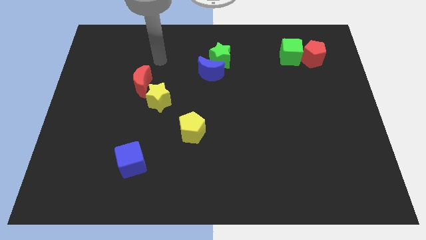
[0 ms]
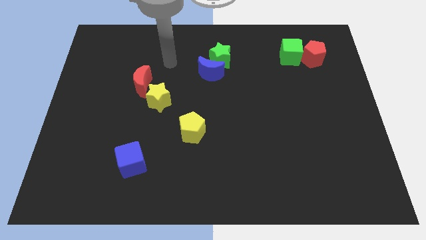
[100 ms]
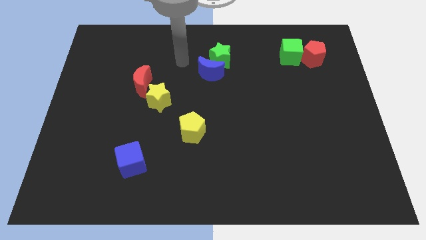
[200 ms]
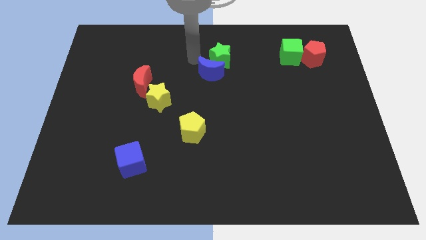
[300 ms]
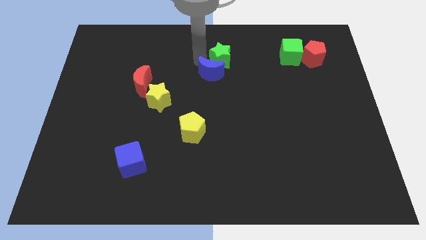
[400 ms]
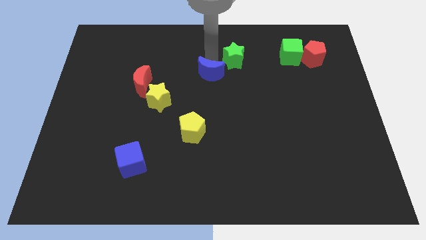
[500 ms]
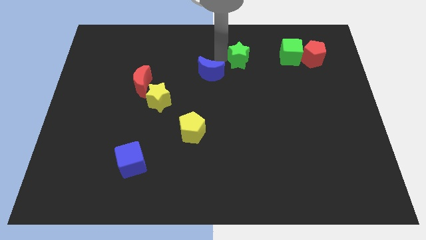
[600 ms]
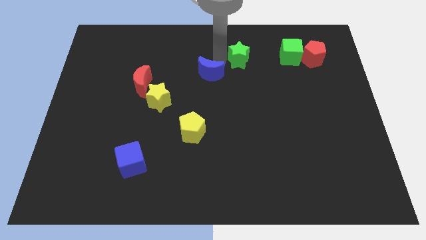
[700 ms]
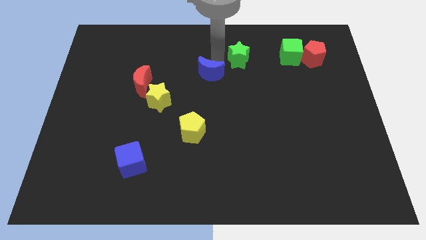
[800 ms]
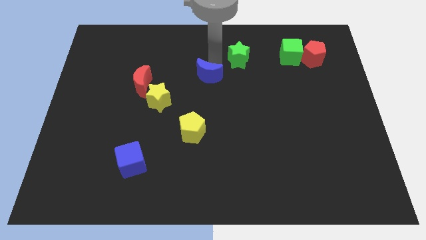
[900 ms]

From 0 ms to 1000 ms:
separate the blue moon from the green star

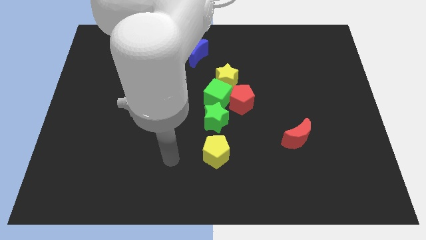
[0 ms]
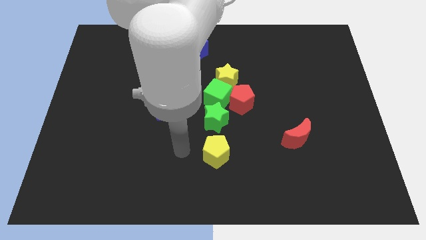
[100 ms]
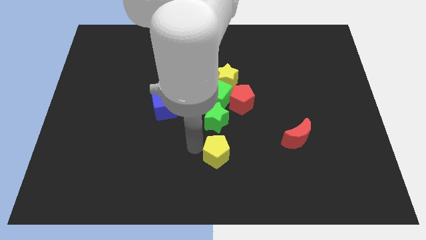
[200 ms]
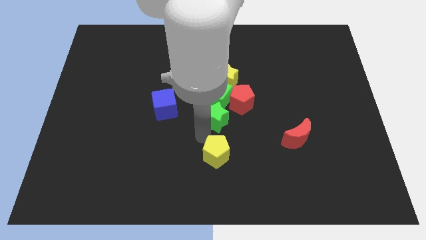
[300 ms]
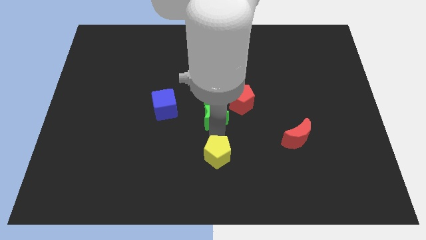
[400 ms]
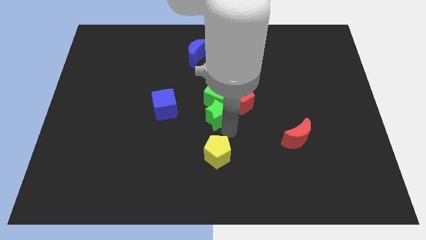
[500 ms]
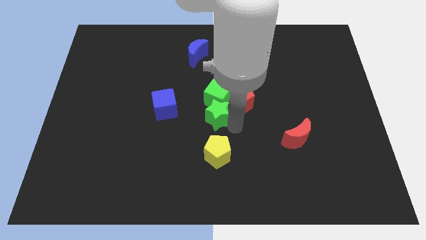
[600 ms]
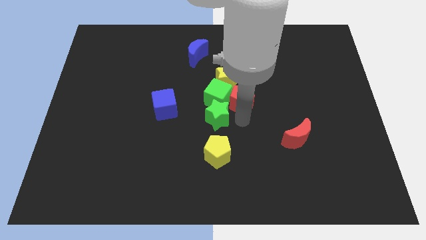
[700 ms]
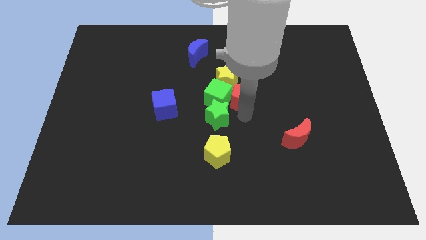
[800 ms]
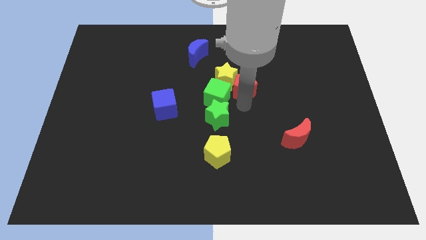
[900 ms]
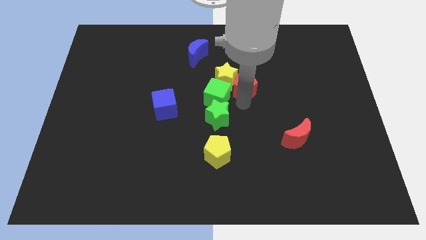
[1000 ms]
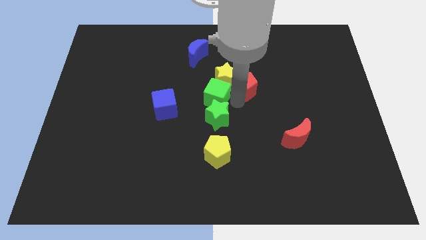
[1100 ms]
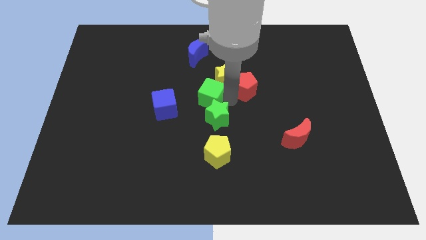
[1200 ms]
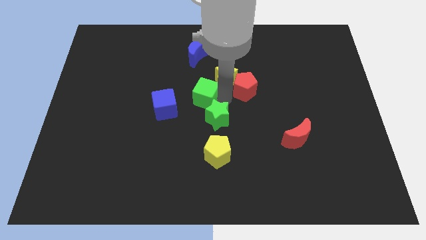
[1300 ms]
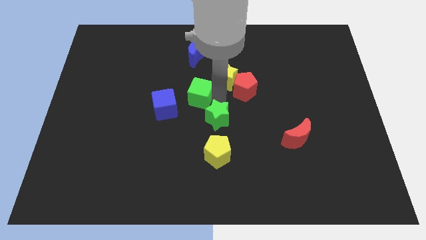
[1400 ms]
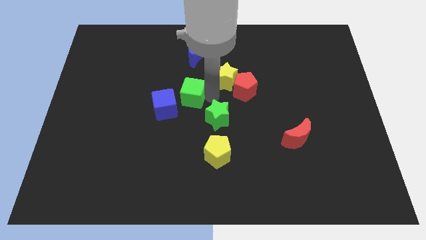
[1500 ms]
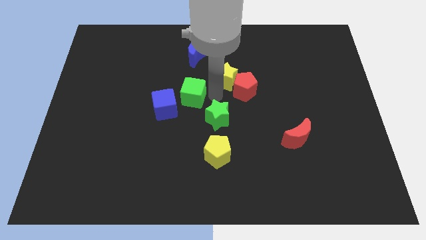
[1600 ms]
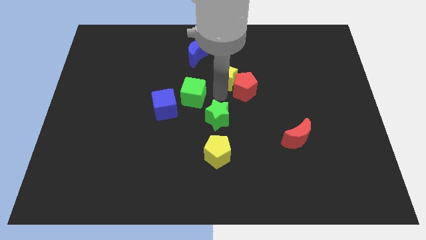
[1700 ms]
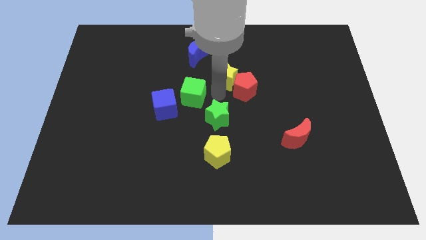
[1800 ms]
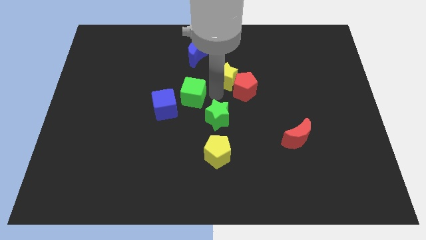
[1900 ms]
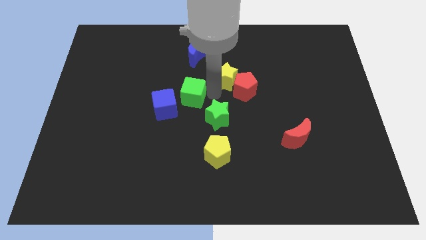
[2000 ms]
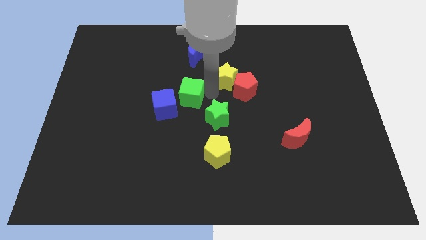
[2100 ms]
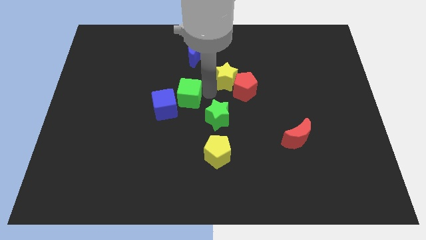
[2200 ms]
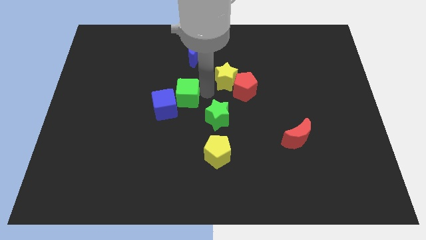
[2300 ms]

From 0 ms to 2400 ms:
separate the green cube from the red pentagon, yellow star, and green star

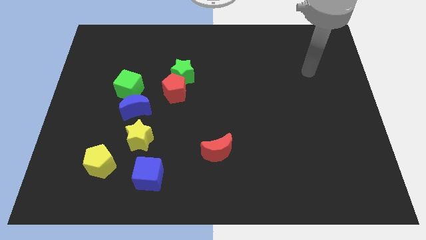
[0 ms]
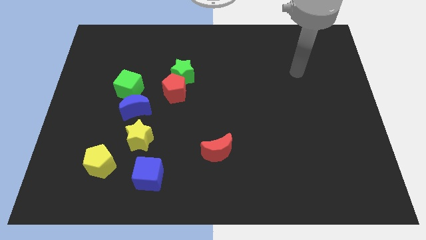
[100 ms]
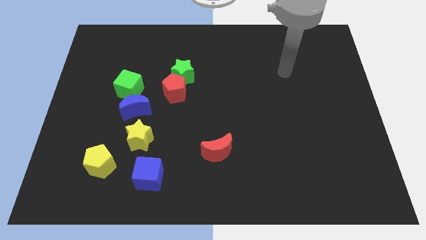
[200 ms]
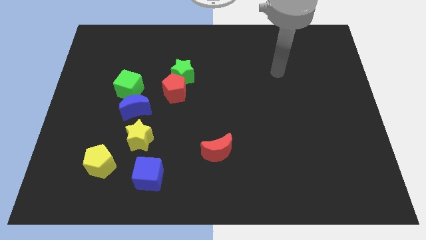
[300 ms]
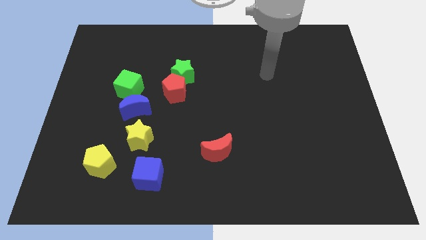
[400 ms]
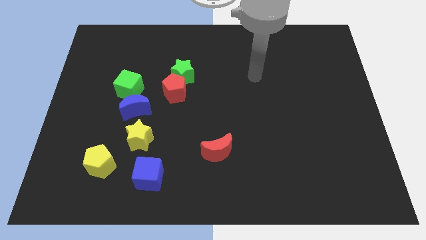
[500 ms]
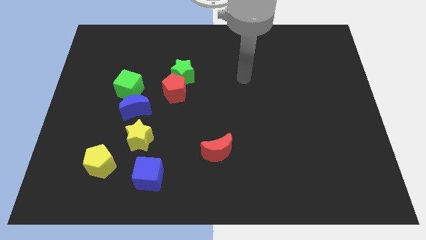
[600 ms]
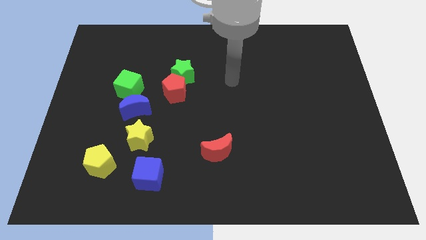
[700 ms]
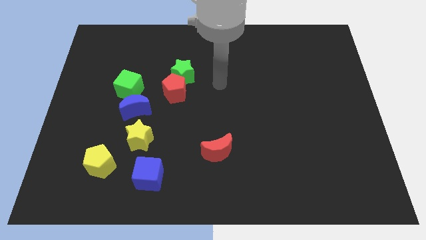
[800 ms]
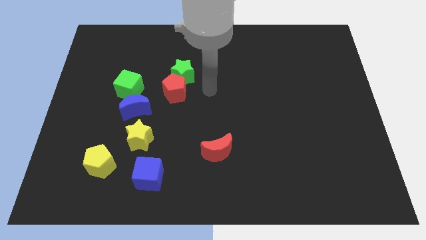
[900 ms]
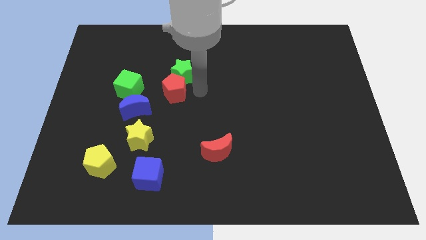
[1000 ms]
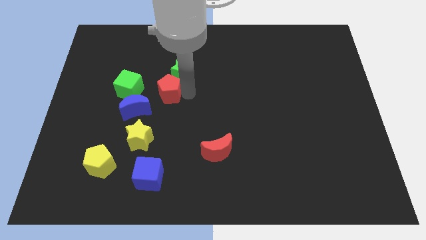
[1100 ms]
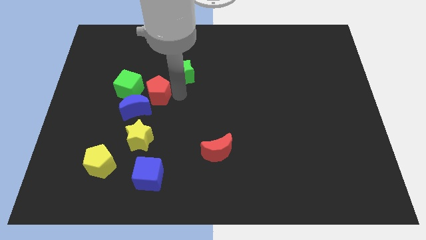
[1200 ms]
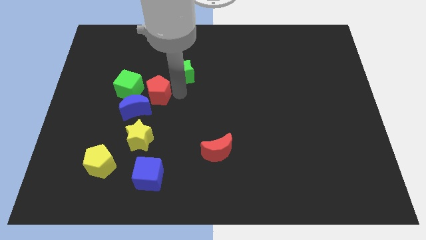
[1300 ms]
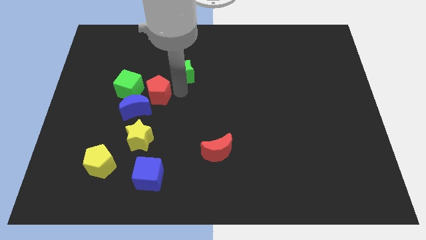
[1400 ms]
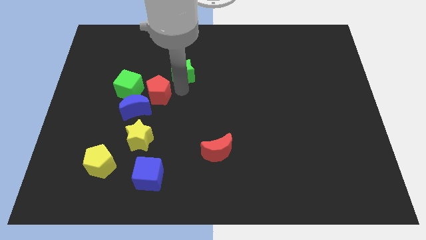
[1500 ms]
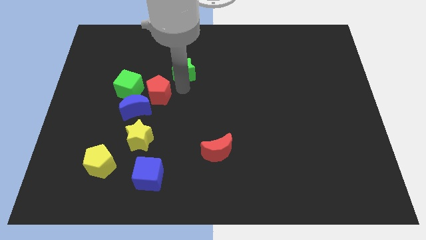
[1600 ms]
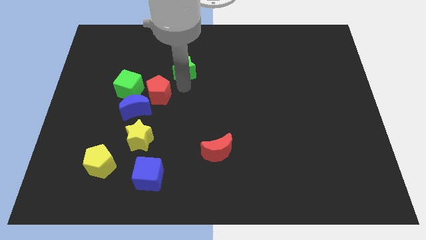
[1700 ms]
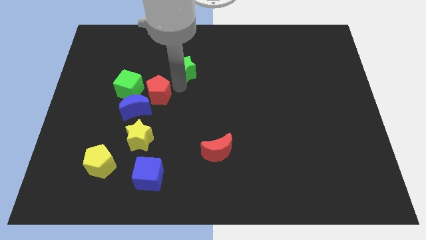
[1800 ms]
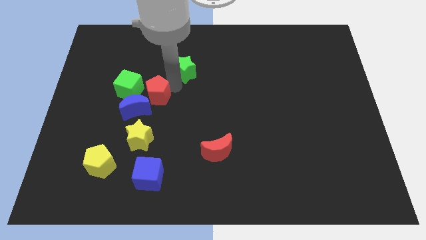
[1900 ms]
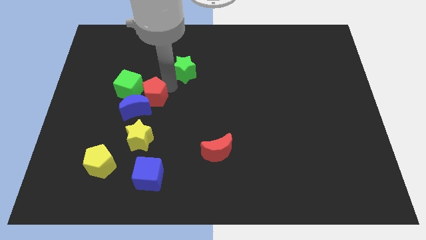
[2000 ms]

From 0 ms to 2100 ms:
pull the green star apart from the red pentagon

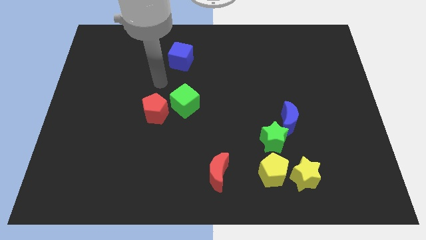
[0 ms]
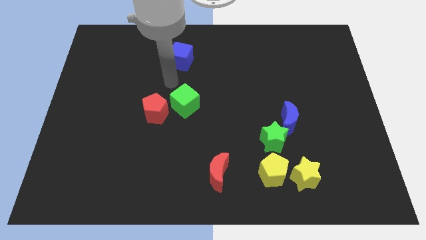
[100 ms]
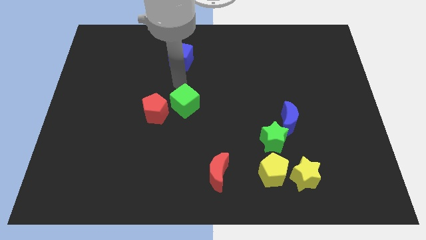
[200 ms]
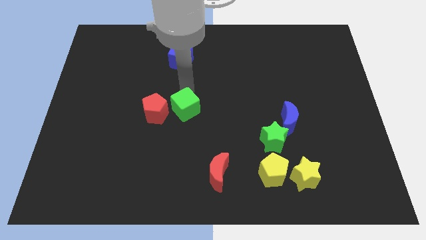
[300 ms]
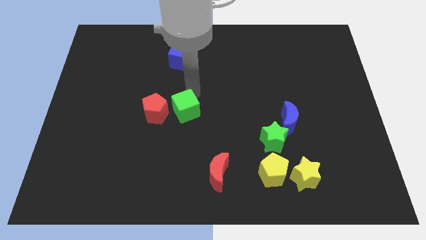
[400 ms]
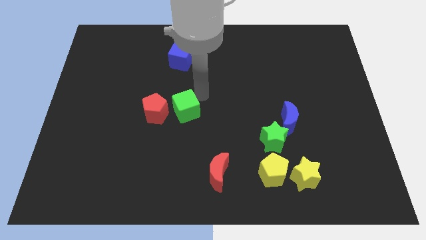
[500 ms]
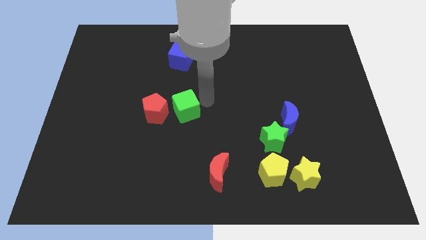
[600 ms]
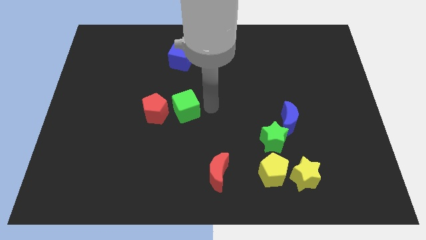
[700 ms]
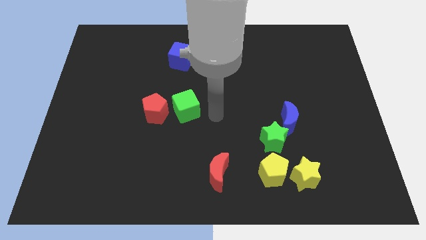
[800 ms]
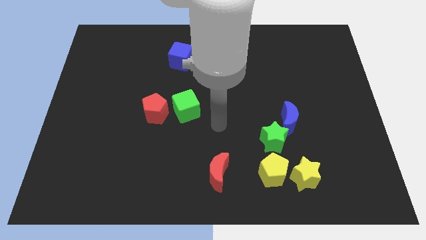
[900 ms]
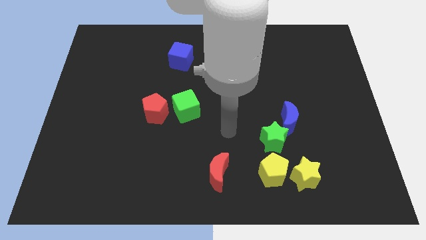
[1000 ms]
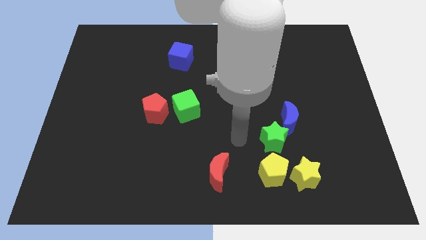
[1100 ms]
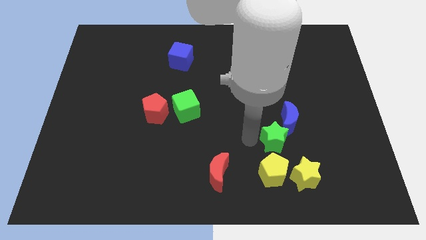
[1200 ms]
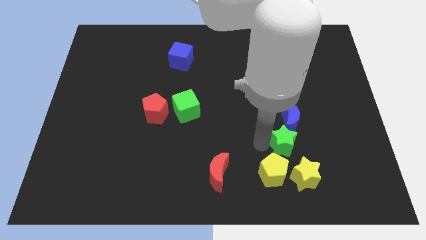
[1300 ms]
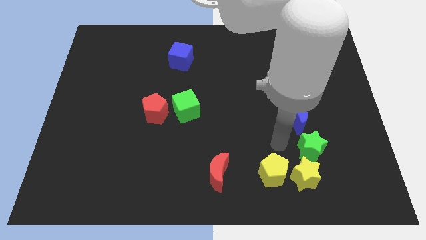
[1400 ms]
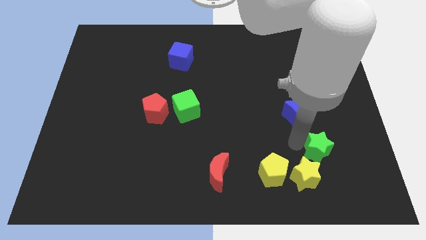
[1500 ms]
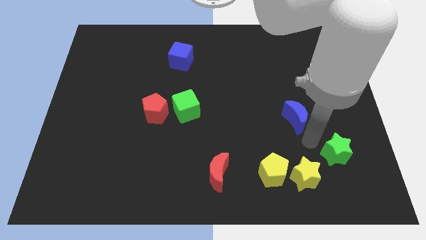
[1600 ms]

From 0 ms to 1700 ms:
pull the blue moon apart from the green star

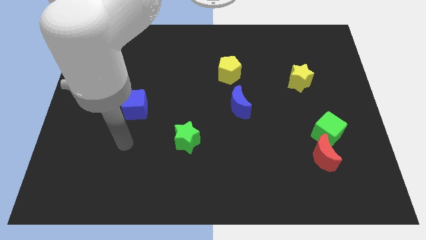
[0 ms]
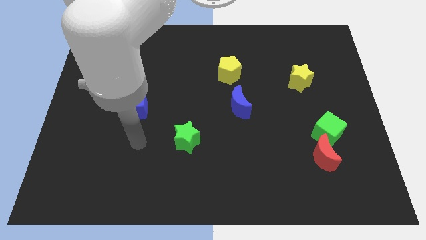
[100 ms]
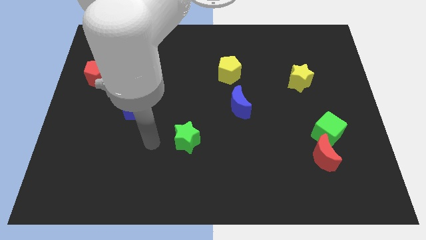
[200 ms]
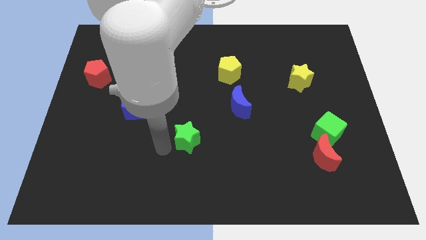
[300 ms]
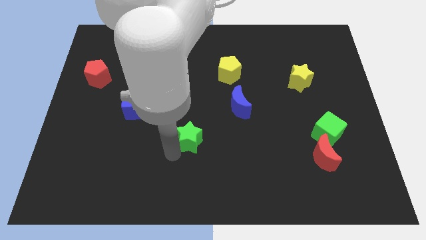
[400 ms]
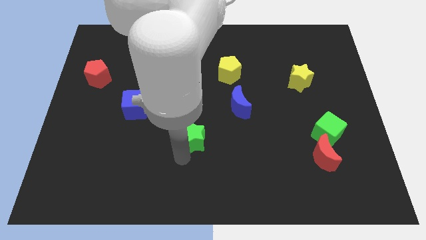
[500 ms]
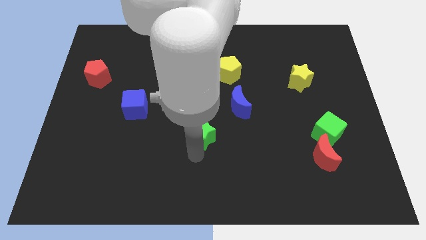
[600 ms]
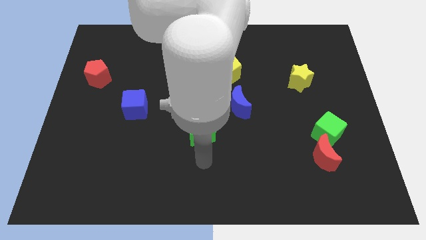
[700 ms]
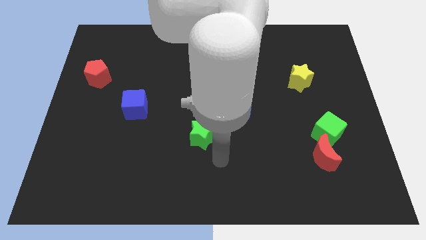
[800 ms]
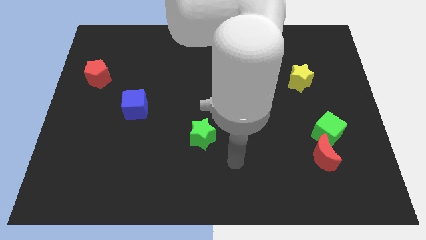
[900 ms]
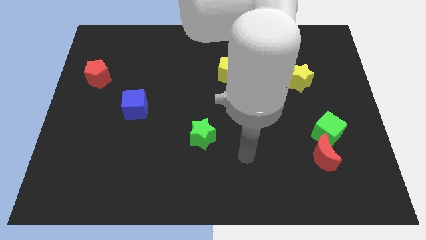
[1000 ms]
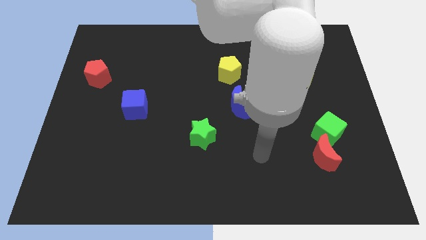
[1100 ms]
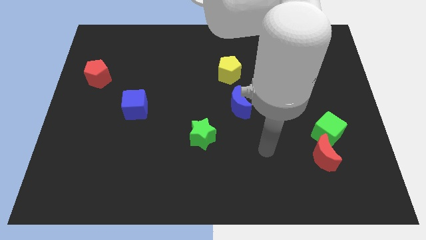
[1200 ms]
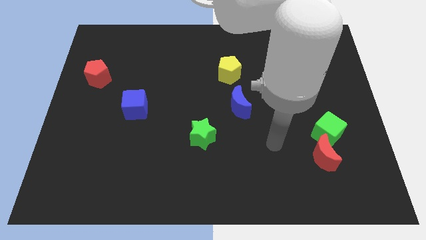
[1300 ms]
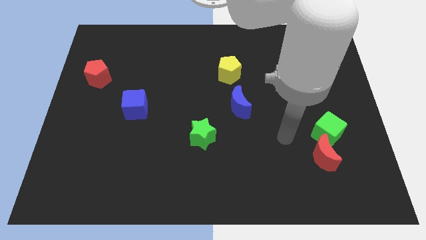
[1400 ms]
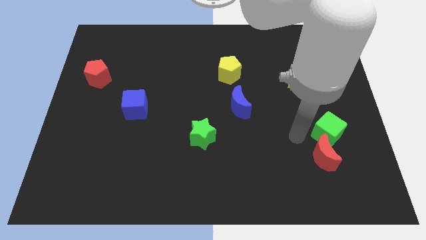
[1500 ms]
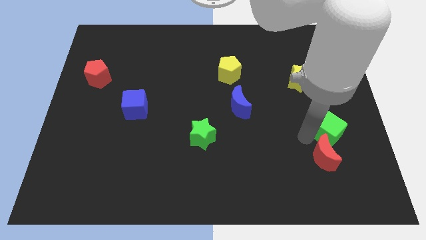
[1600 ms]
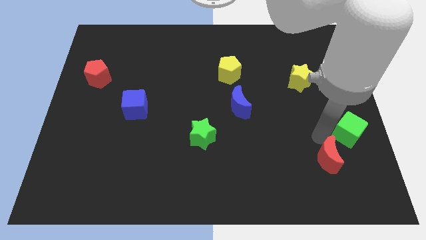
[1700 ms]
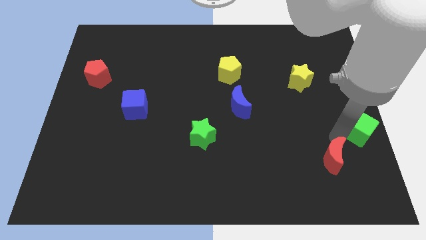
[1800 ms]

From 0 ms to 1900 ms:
pull the red moon apart from the green cube

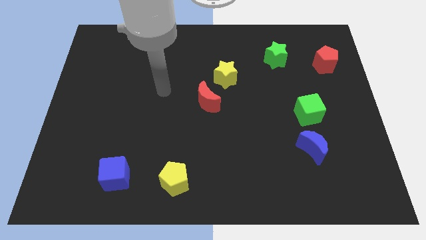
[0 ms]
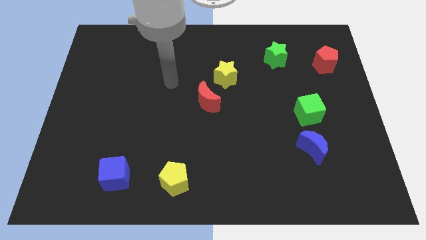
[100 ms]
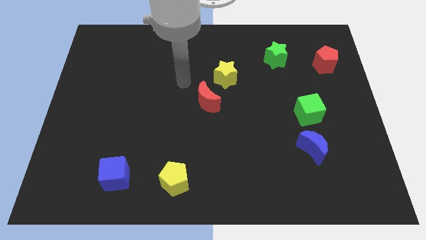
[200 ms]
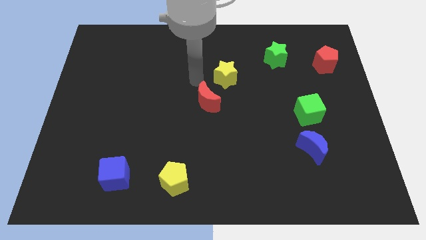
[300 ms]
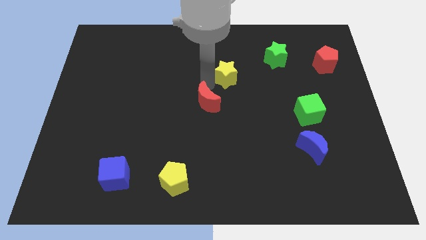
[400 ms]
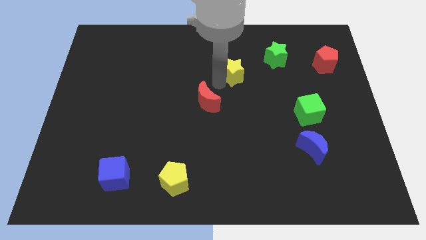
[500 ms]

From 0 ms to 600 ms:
separate the red moon from the yellow star
